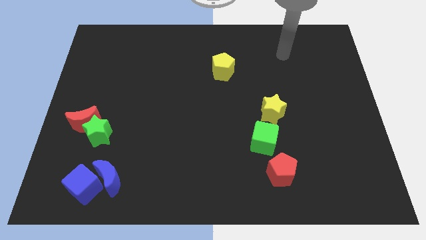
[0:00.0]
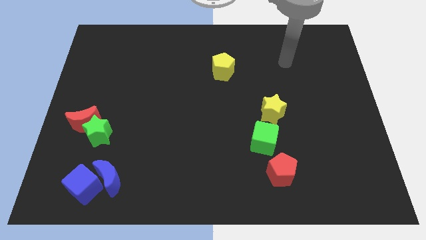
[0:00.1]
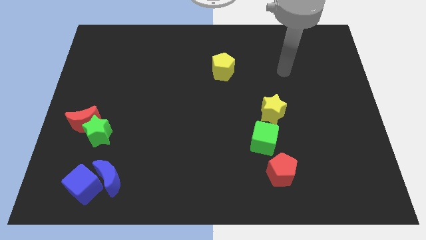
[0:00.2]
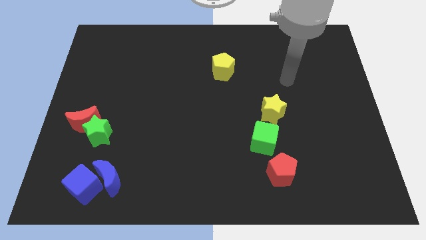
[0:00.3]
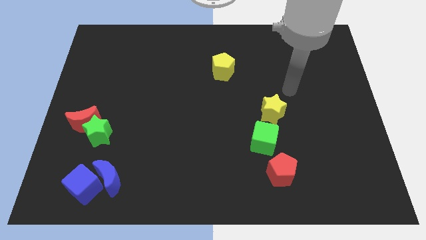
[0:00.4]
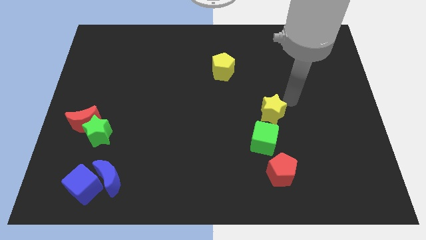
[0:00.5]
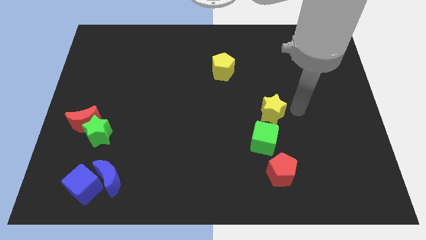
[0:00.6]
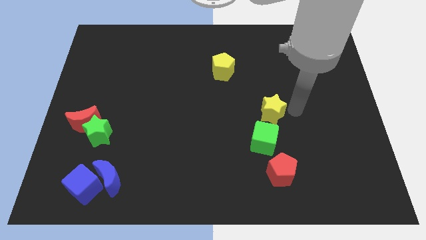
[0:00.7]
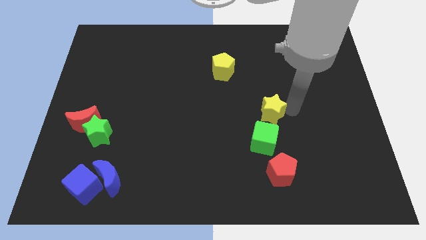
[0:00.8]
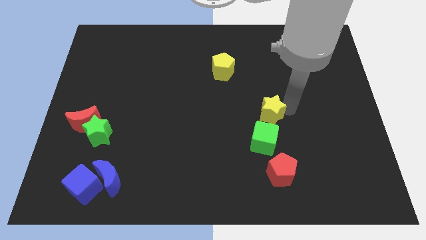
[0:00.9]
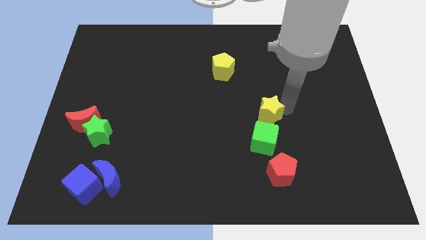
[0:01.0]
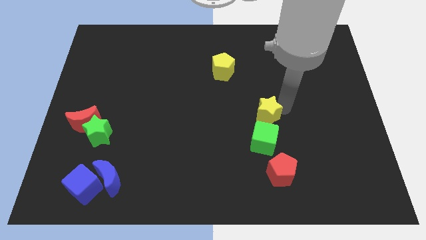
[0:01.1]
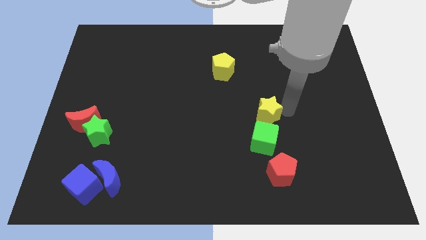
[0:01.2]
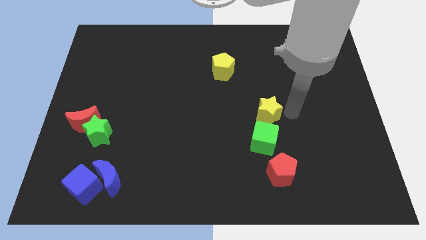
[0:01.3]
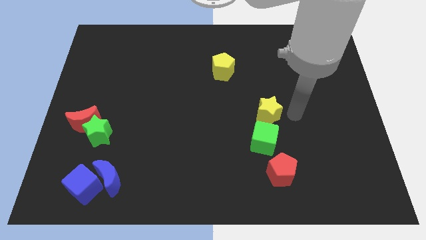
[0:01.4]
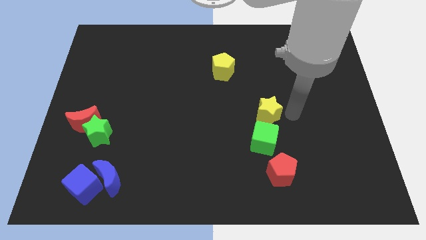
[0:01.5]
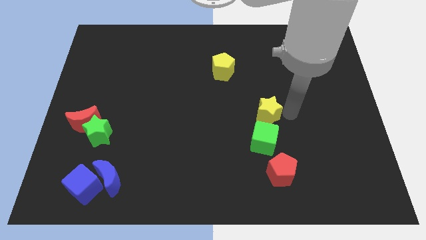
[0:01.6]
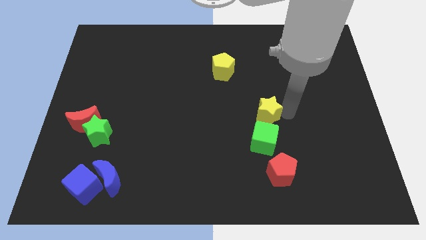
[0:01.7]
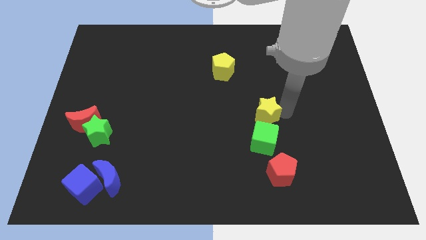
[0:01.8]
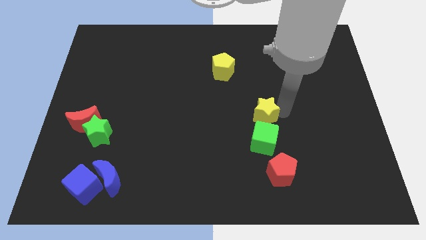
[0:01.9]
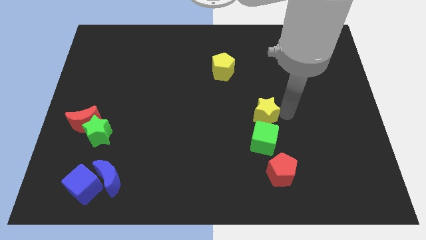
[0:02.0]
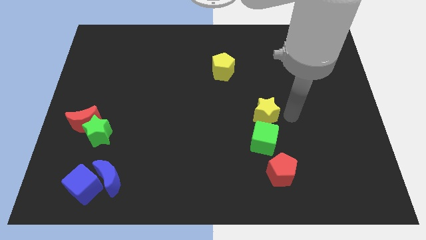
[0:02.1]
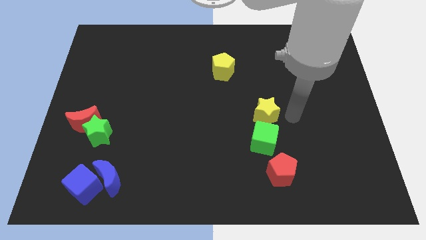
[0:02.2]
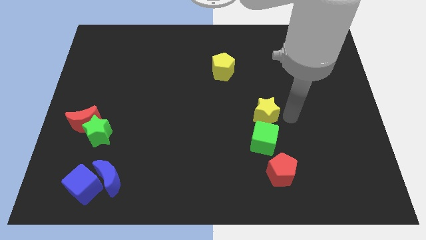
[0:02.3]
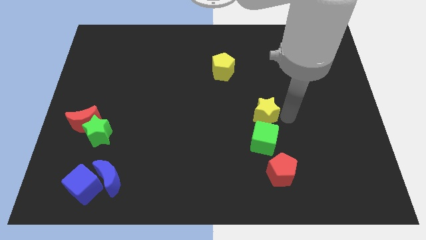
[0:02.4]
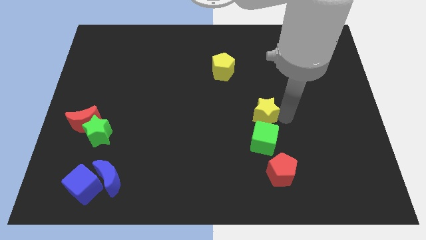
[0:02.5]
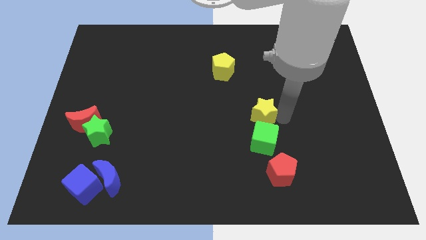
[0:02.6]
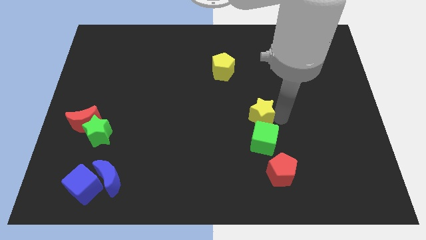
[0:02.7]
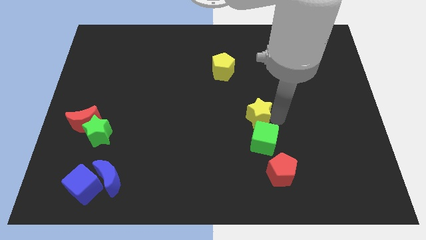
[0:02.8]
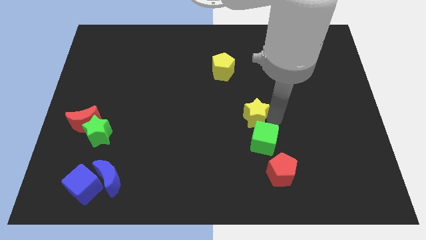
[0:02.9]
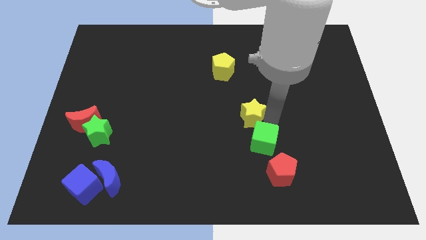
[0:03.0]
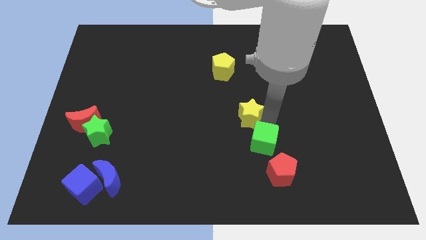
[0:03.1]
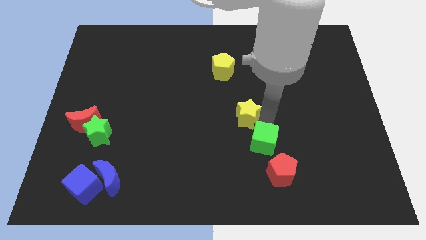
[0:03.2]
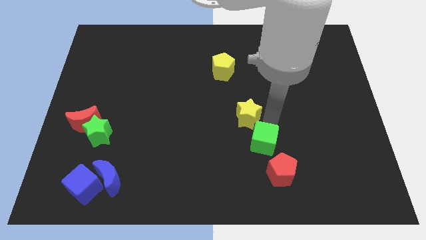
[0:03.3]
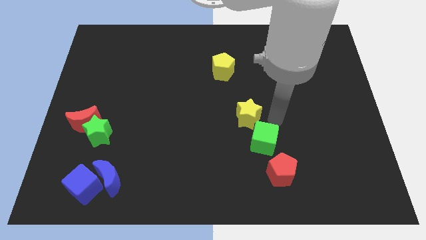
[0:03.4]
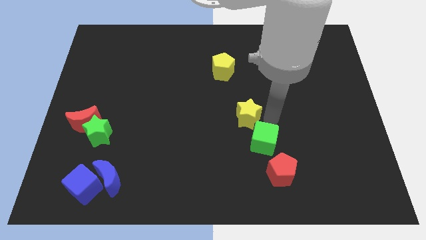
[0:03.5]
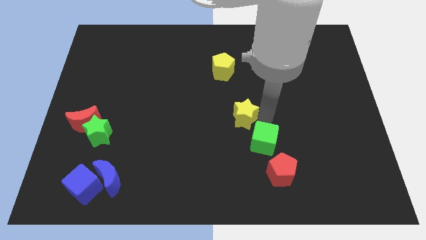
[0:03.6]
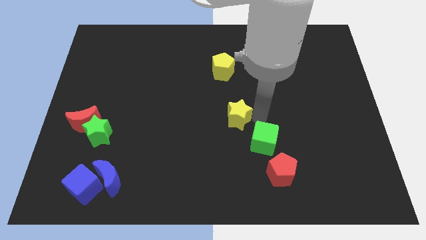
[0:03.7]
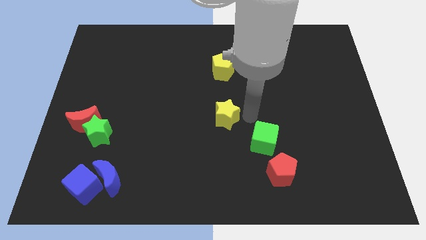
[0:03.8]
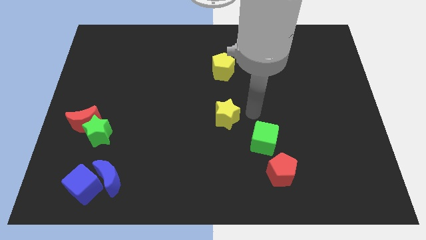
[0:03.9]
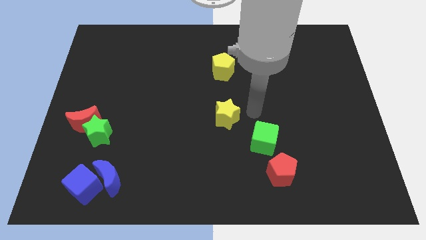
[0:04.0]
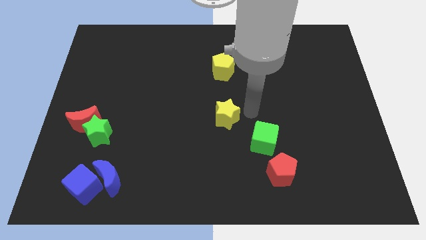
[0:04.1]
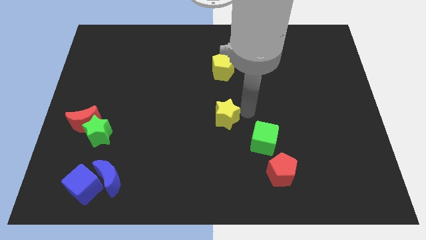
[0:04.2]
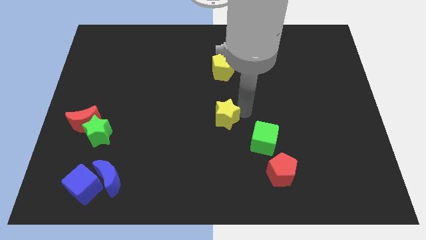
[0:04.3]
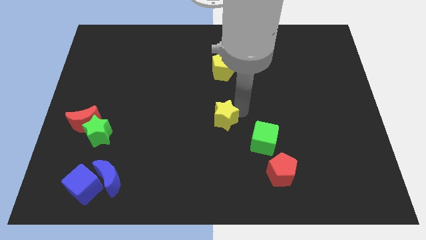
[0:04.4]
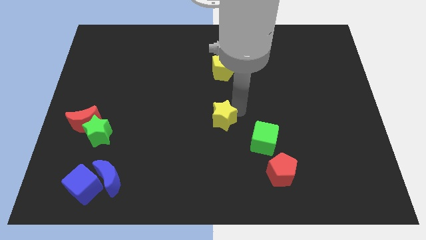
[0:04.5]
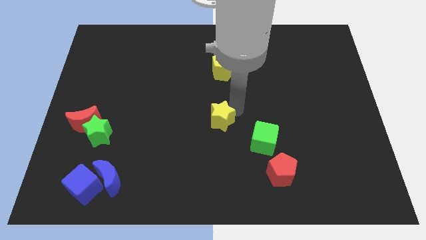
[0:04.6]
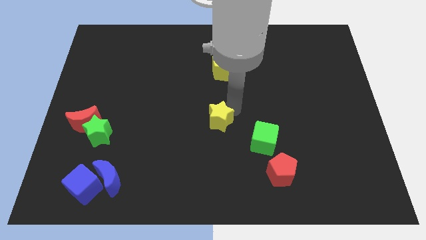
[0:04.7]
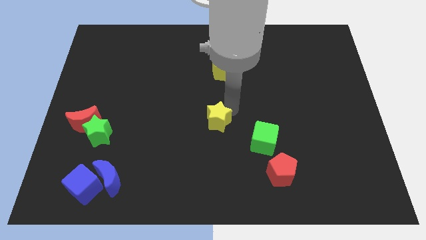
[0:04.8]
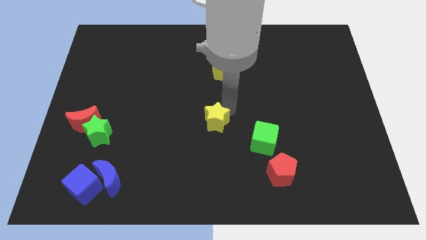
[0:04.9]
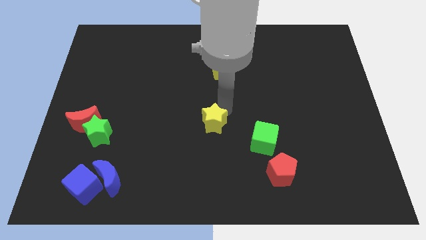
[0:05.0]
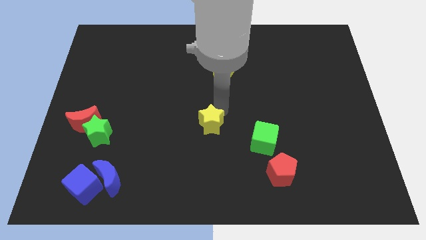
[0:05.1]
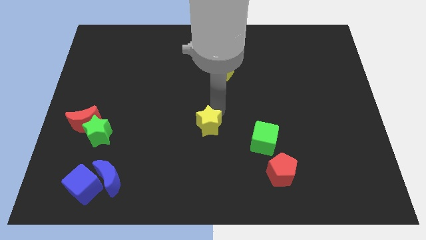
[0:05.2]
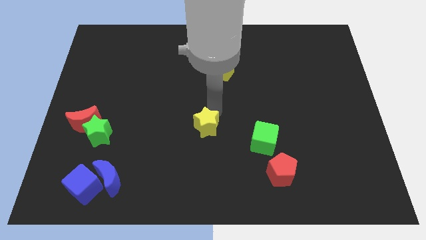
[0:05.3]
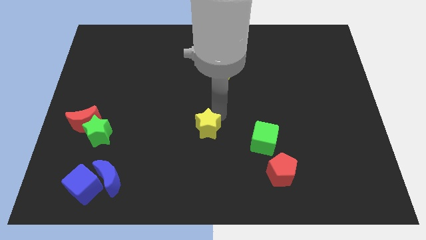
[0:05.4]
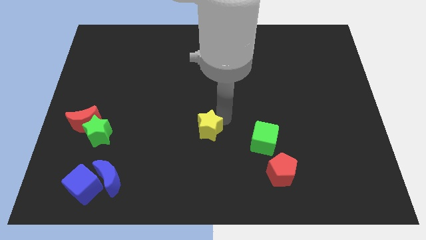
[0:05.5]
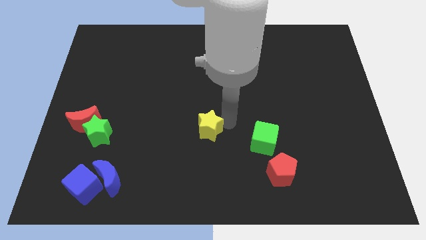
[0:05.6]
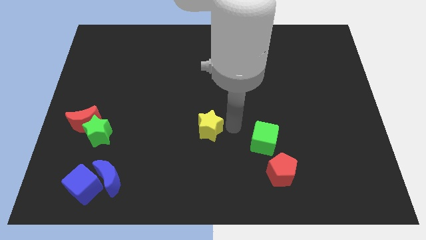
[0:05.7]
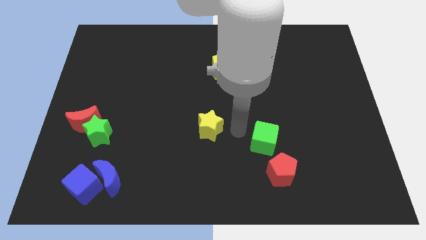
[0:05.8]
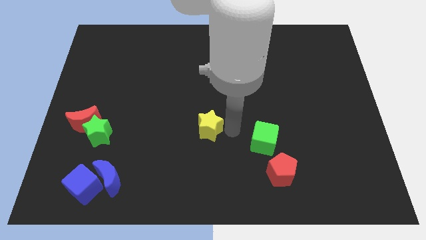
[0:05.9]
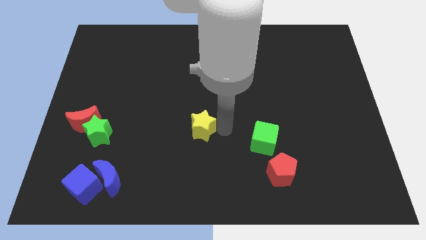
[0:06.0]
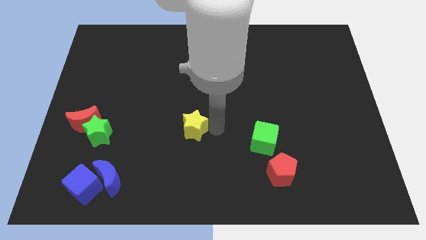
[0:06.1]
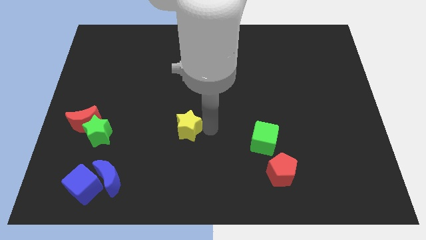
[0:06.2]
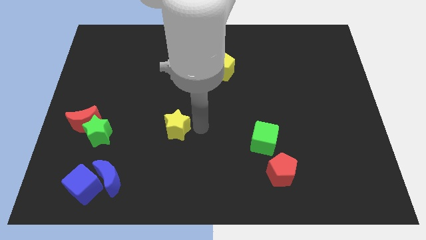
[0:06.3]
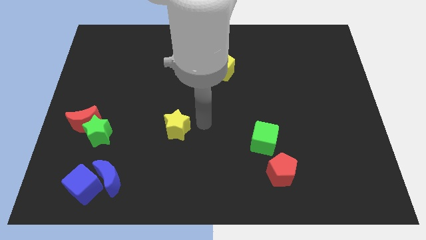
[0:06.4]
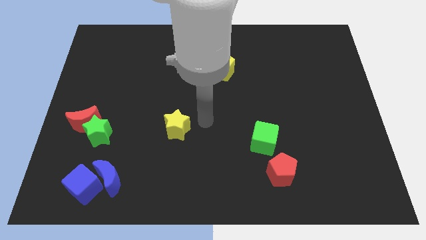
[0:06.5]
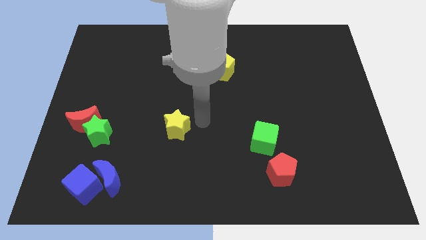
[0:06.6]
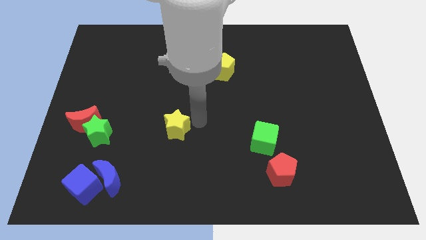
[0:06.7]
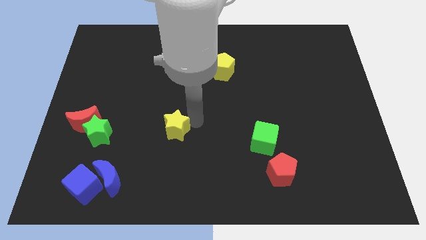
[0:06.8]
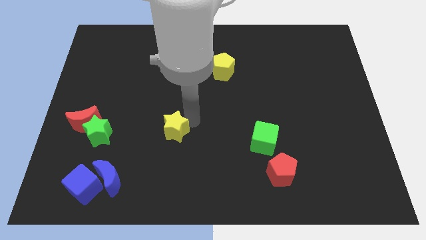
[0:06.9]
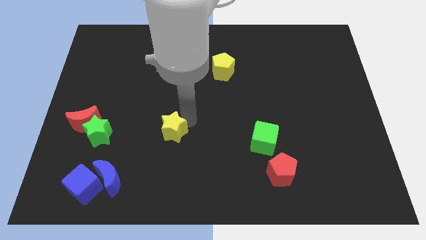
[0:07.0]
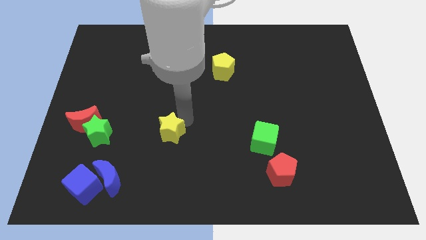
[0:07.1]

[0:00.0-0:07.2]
move the yellow star just right of the green star

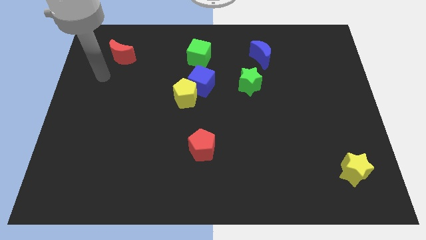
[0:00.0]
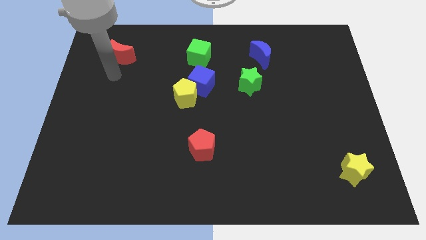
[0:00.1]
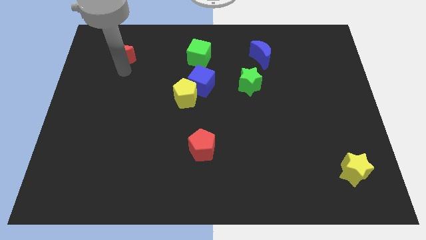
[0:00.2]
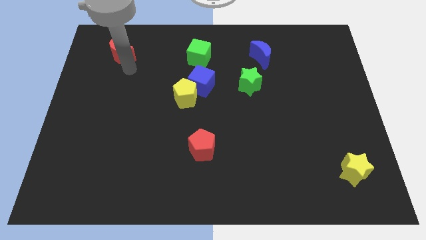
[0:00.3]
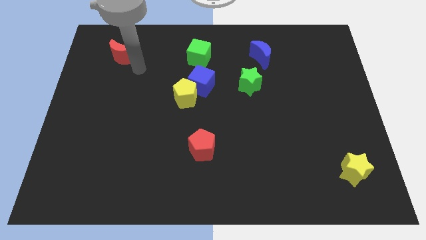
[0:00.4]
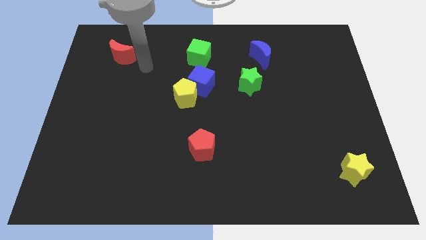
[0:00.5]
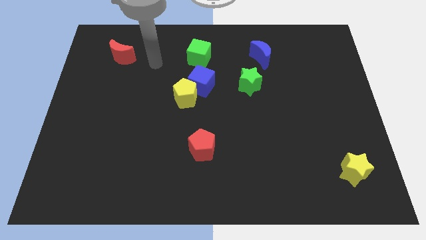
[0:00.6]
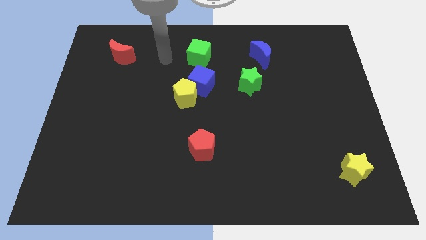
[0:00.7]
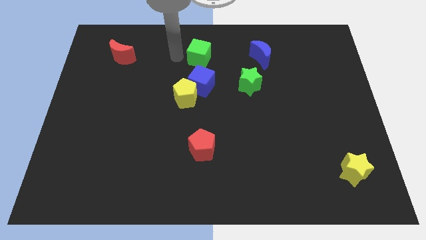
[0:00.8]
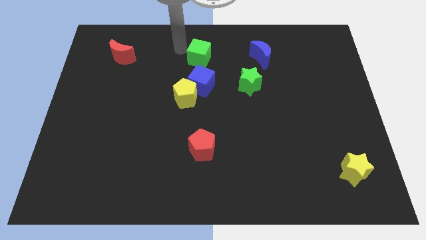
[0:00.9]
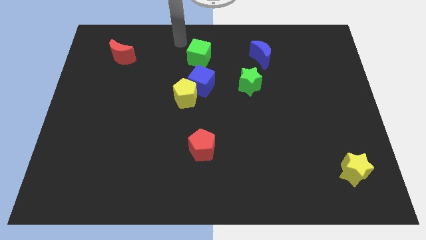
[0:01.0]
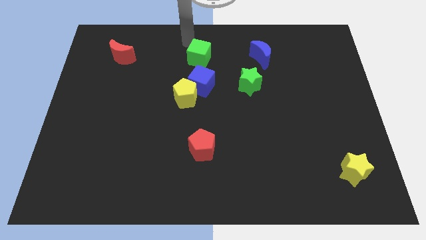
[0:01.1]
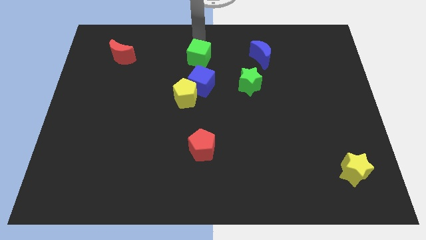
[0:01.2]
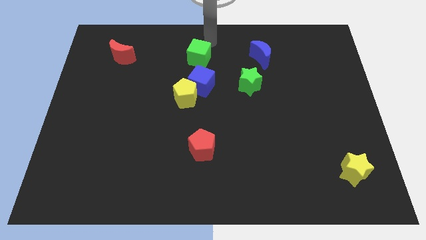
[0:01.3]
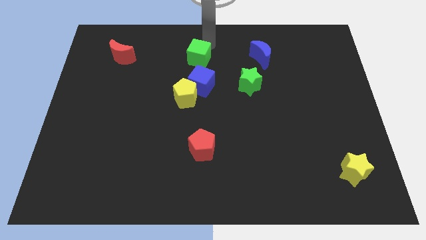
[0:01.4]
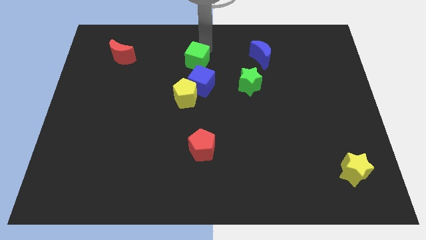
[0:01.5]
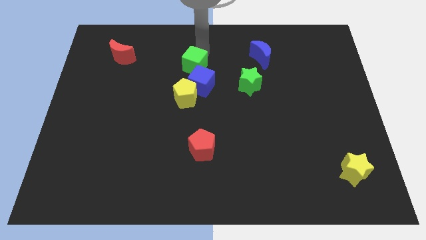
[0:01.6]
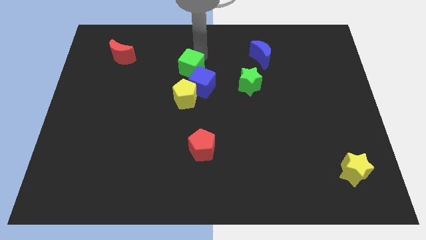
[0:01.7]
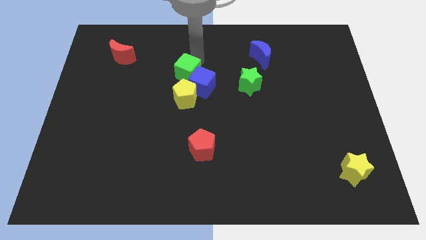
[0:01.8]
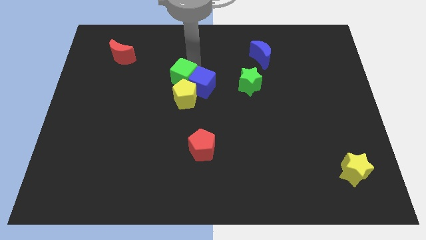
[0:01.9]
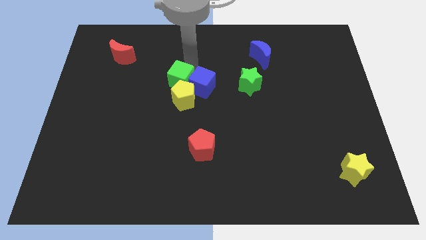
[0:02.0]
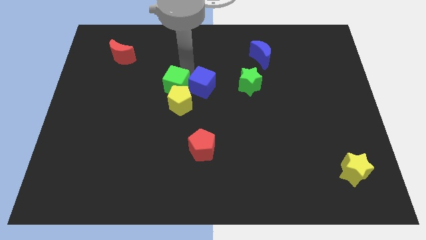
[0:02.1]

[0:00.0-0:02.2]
move the green cube diagonally down and to the left of the blue cube
